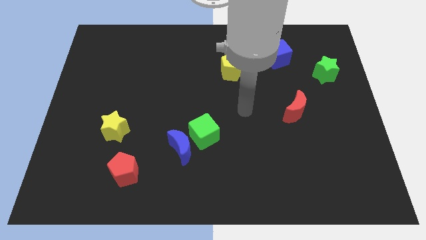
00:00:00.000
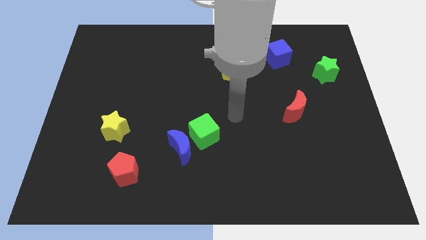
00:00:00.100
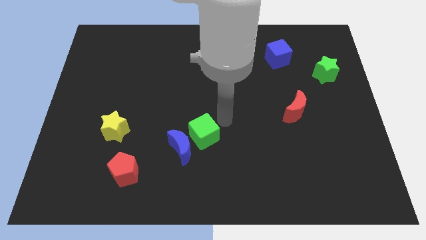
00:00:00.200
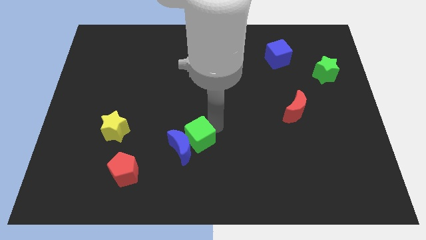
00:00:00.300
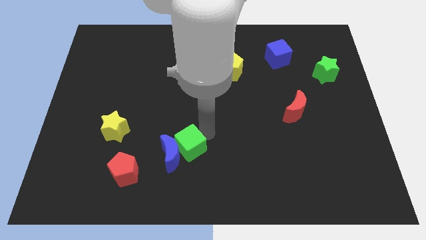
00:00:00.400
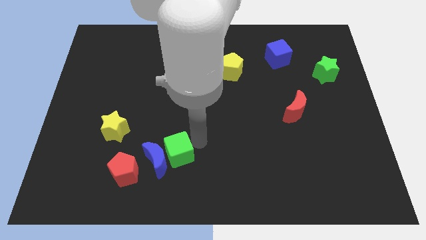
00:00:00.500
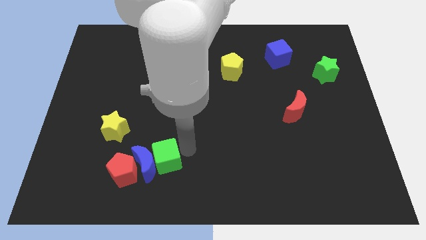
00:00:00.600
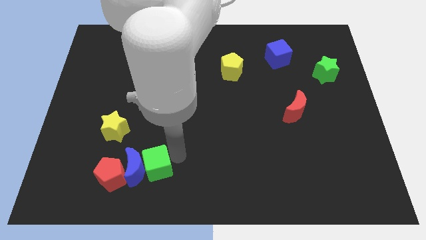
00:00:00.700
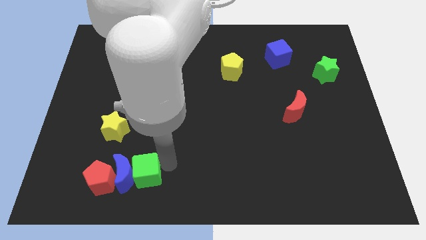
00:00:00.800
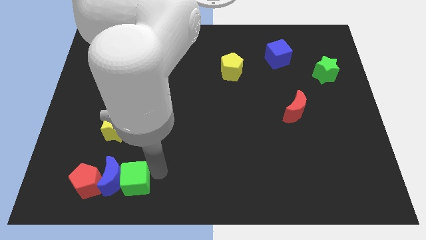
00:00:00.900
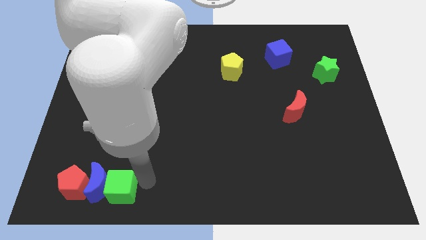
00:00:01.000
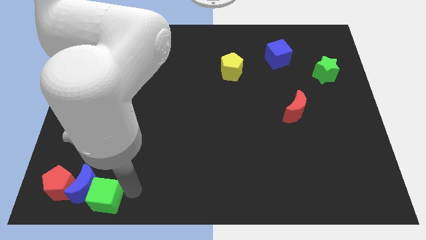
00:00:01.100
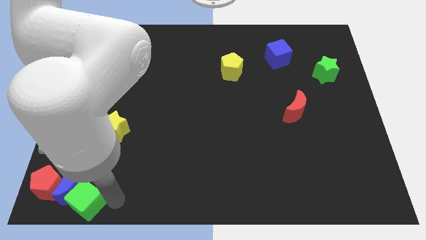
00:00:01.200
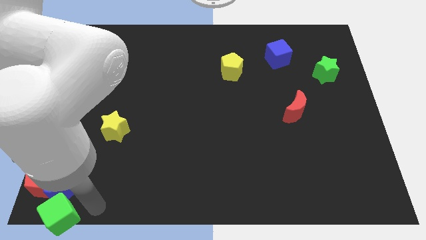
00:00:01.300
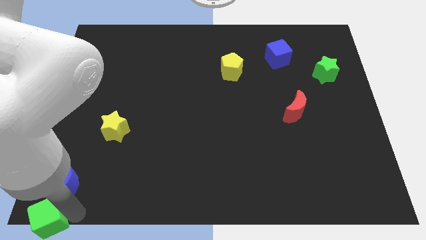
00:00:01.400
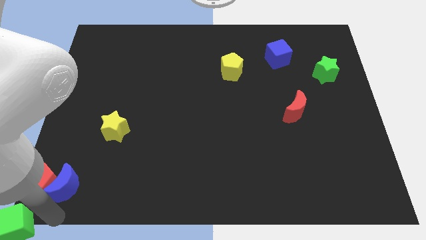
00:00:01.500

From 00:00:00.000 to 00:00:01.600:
move the blue moon away from the green cube

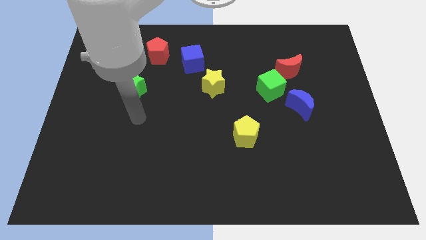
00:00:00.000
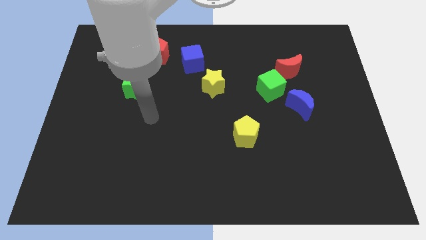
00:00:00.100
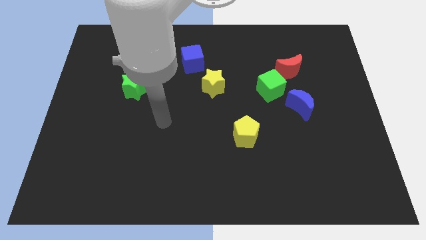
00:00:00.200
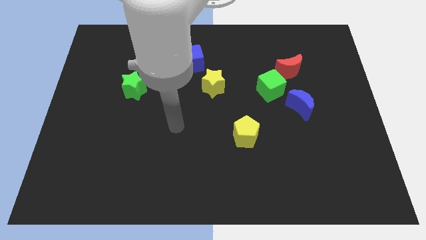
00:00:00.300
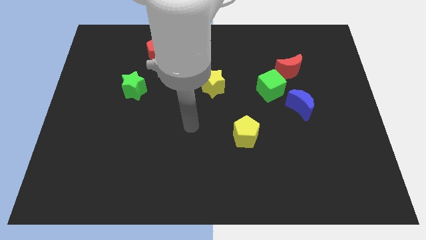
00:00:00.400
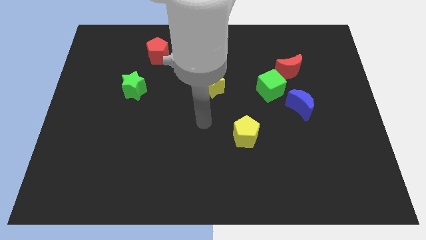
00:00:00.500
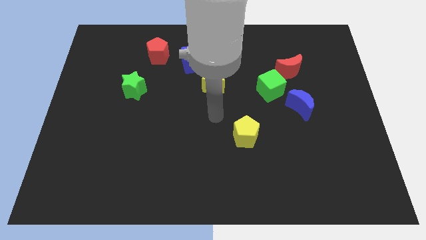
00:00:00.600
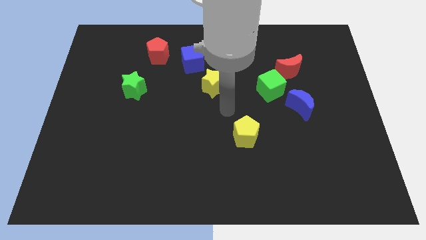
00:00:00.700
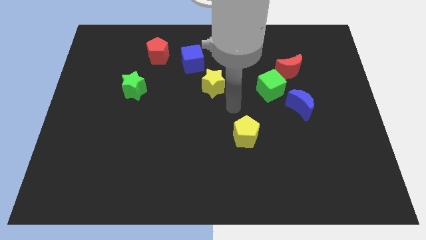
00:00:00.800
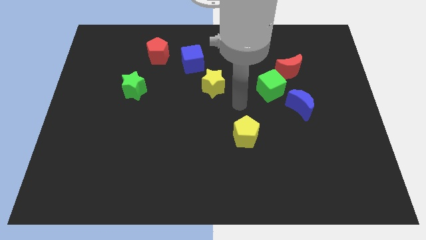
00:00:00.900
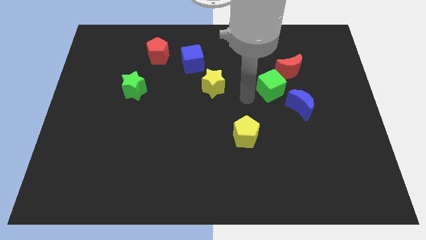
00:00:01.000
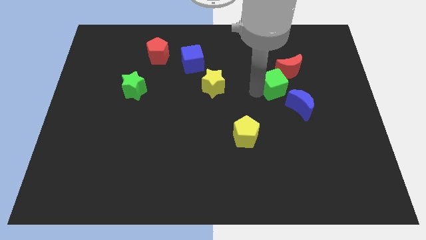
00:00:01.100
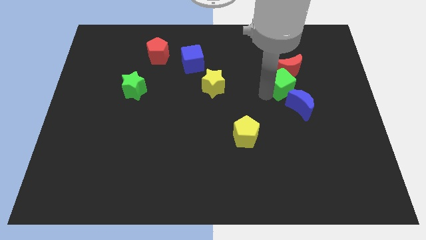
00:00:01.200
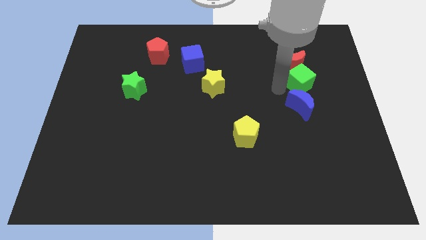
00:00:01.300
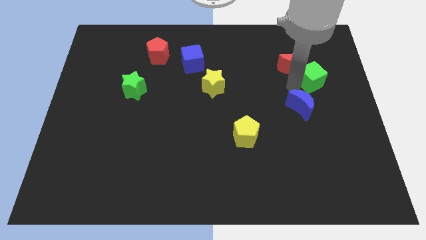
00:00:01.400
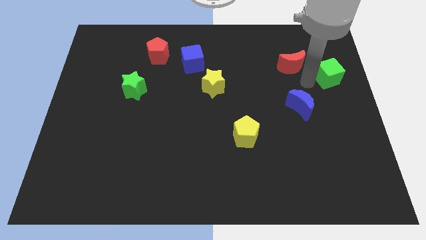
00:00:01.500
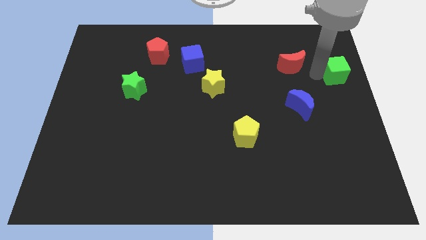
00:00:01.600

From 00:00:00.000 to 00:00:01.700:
separate the red moon from the green cube

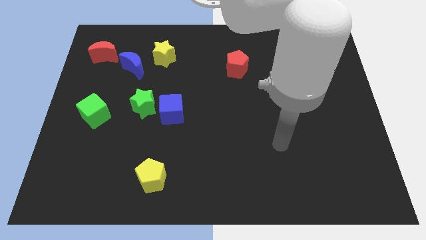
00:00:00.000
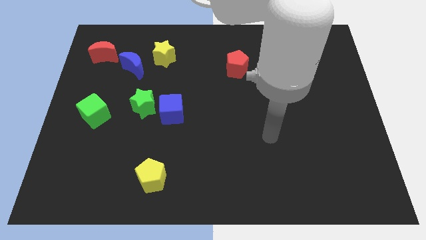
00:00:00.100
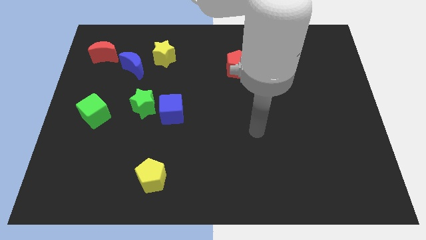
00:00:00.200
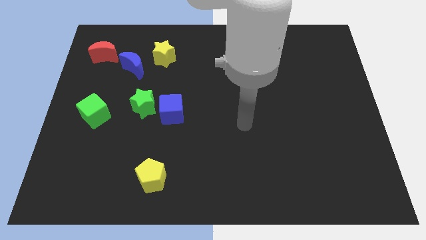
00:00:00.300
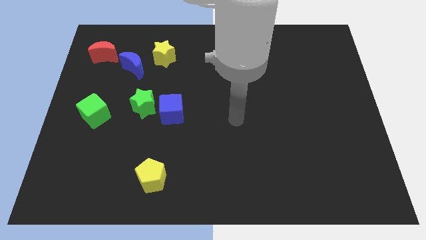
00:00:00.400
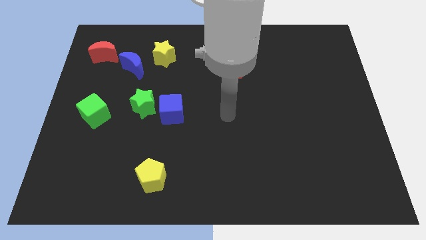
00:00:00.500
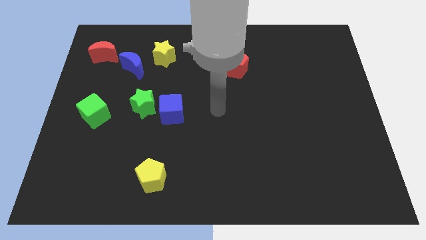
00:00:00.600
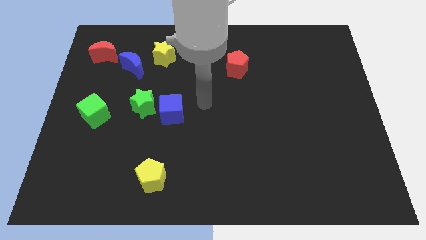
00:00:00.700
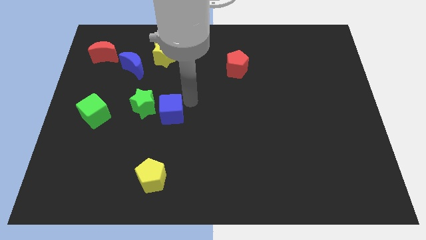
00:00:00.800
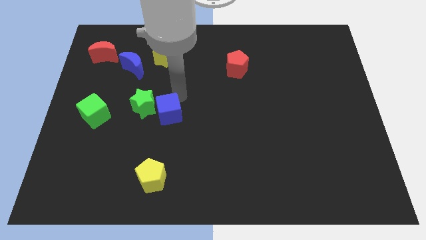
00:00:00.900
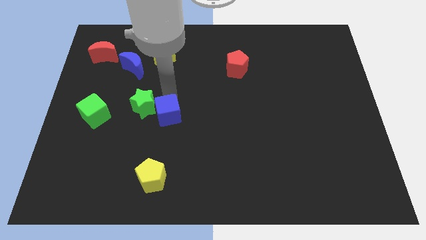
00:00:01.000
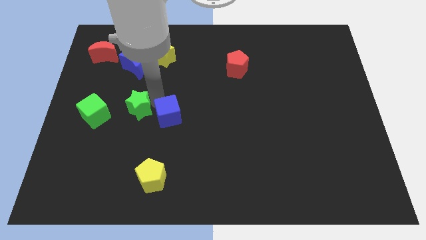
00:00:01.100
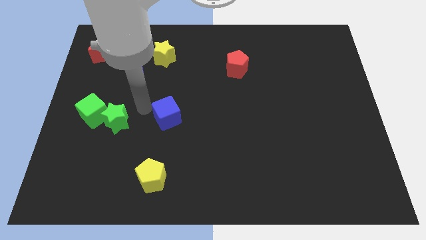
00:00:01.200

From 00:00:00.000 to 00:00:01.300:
pull the blue cube apart from the green star

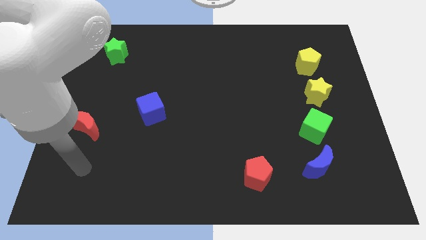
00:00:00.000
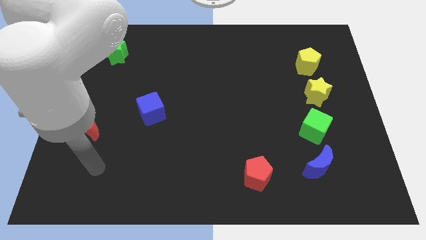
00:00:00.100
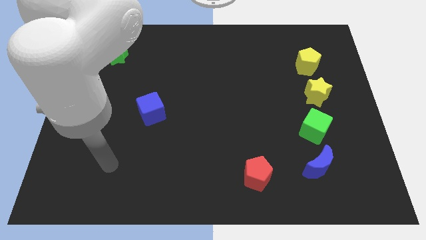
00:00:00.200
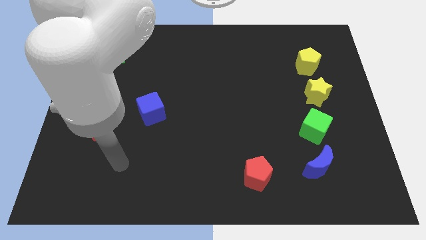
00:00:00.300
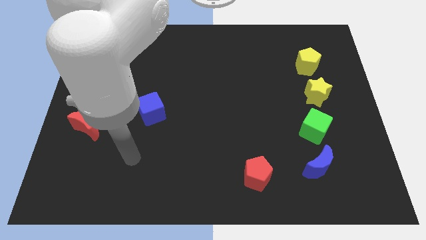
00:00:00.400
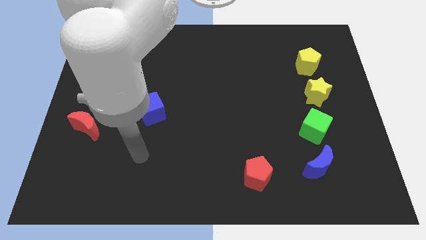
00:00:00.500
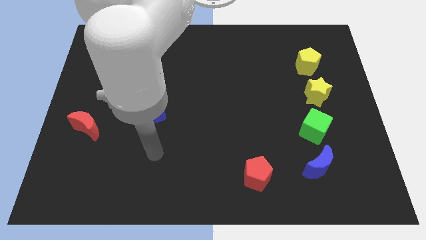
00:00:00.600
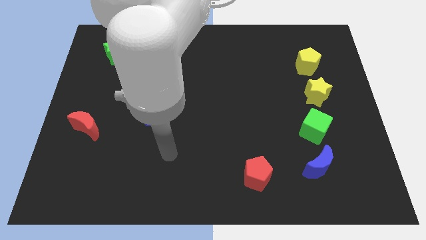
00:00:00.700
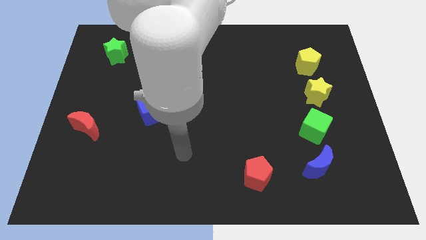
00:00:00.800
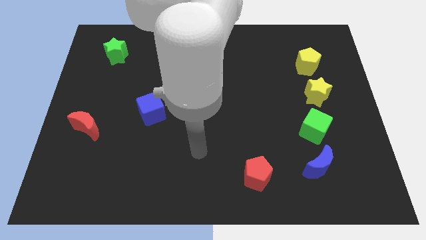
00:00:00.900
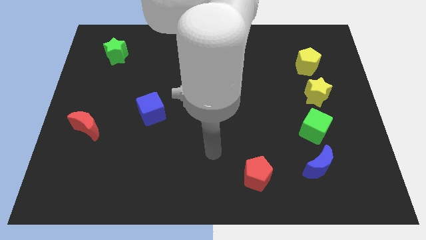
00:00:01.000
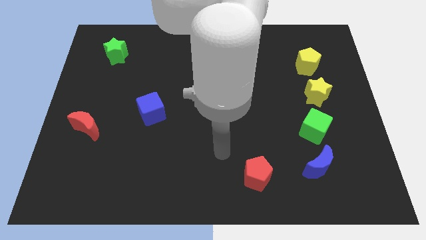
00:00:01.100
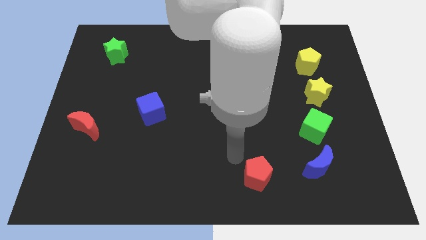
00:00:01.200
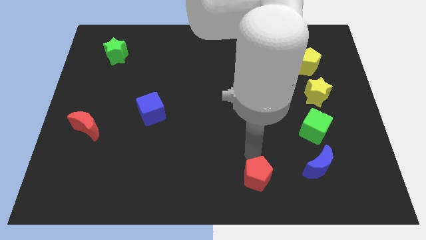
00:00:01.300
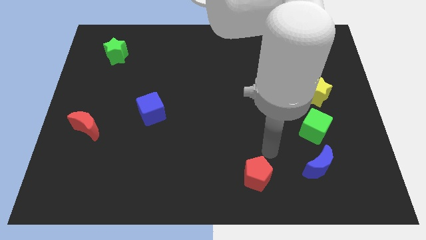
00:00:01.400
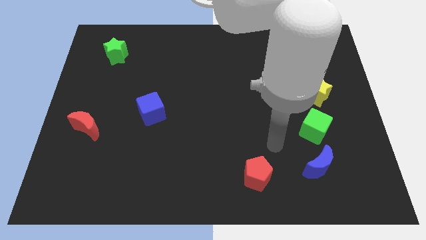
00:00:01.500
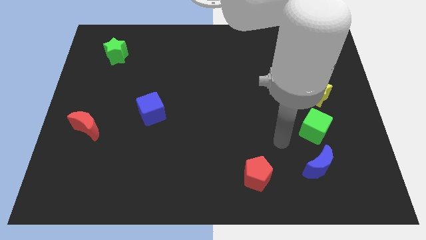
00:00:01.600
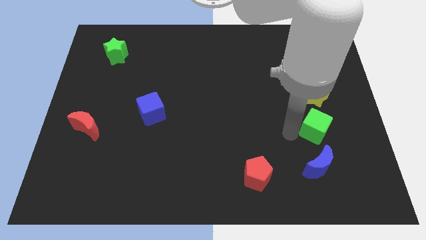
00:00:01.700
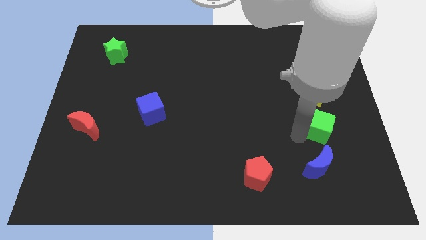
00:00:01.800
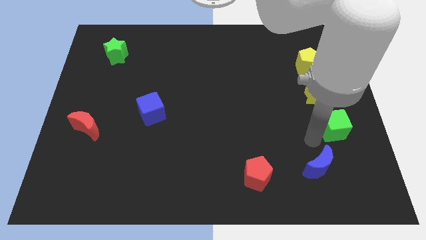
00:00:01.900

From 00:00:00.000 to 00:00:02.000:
separate the blue moon from the green cube

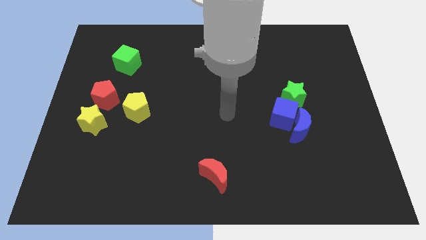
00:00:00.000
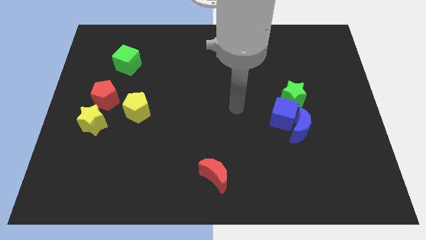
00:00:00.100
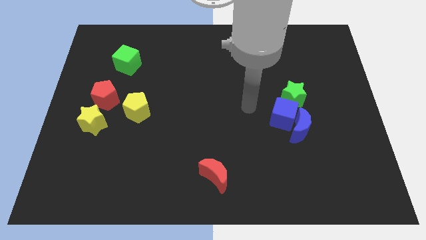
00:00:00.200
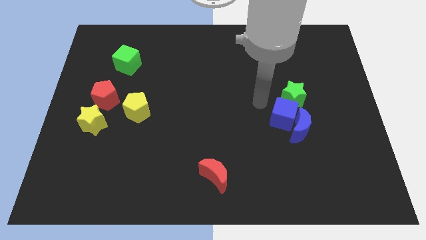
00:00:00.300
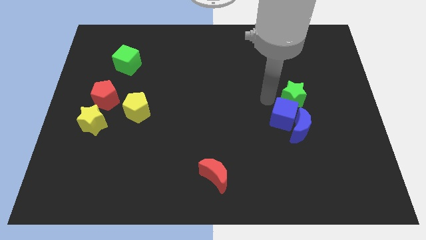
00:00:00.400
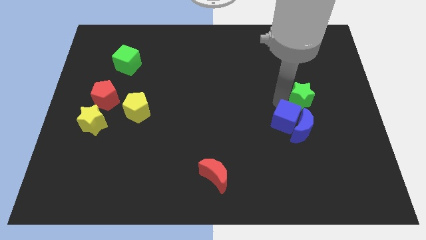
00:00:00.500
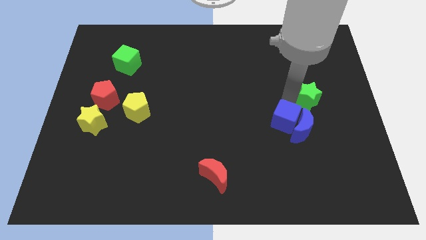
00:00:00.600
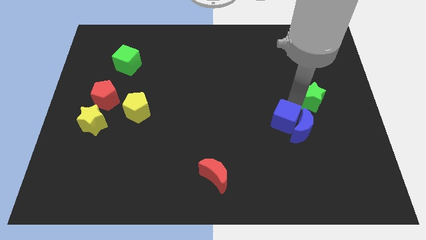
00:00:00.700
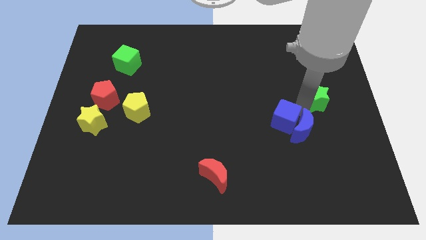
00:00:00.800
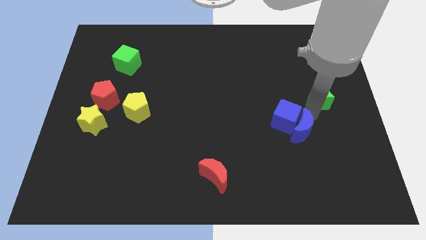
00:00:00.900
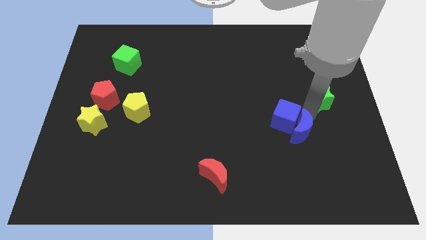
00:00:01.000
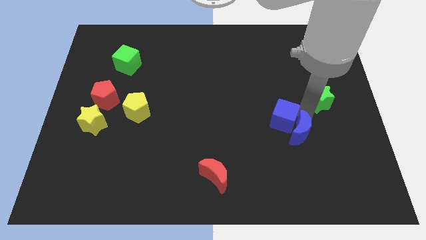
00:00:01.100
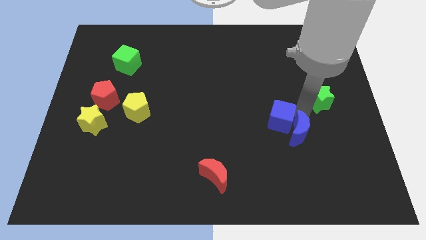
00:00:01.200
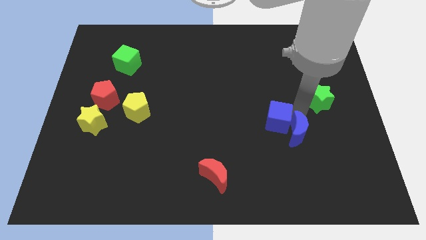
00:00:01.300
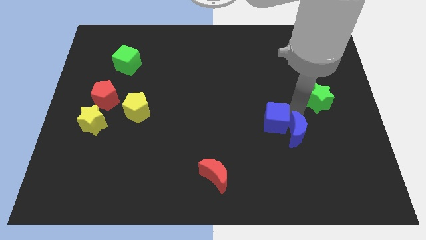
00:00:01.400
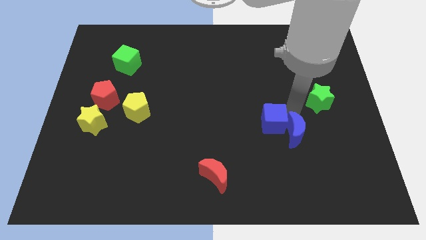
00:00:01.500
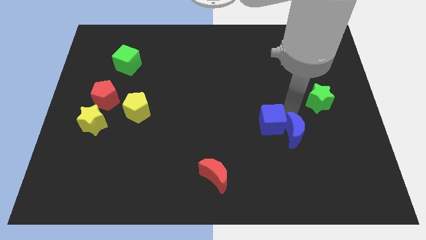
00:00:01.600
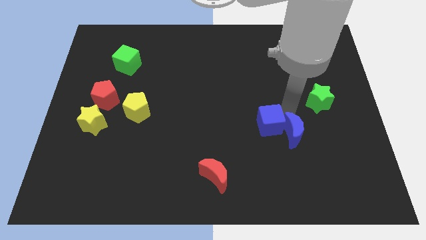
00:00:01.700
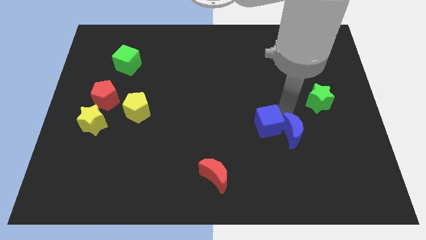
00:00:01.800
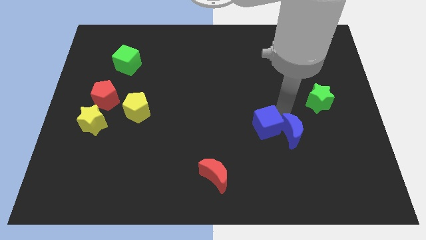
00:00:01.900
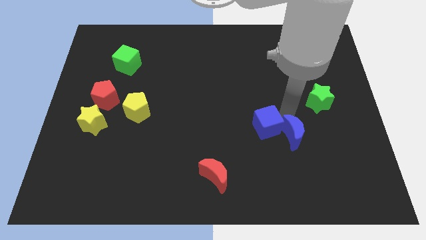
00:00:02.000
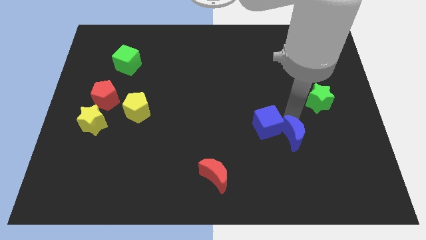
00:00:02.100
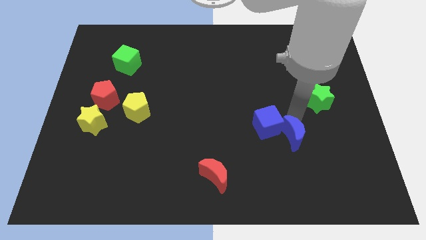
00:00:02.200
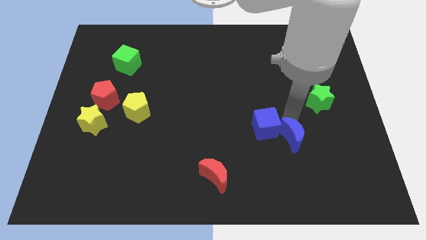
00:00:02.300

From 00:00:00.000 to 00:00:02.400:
separate the blue cube from the blue moon and green star

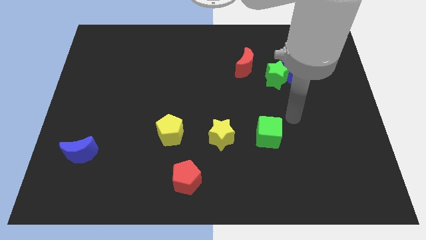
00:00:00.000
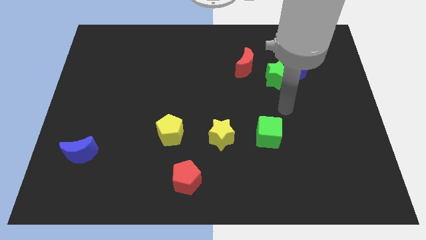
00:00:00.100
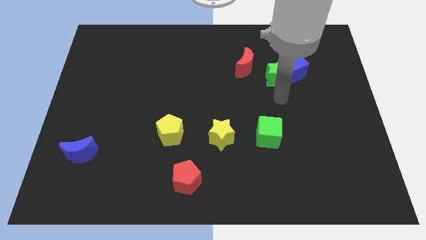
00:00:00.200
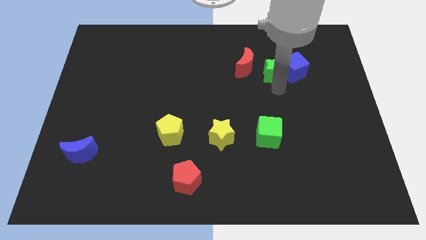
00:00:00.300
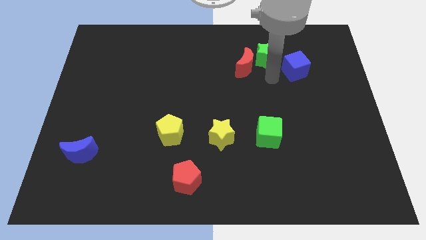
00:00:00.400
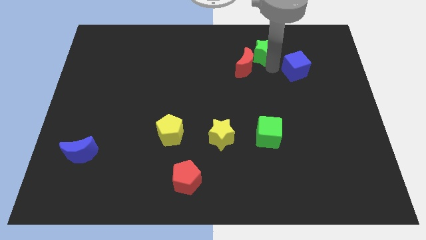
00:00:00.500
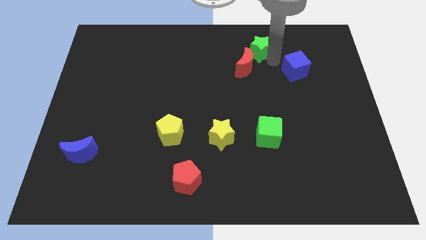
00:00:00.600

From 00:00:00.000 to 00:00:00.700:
separate the blue cube from the green star
